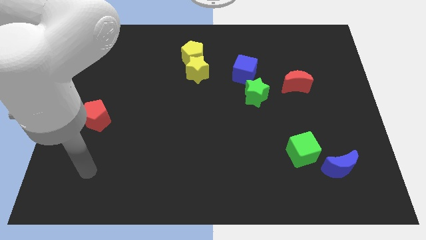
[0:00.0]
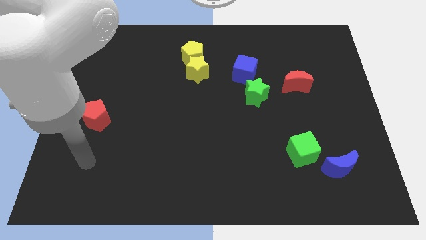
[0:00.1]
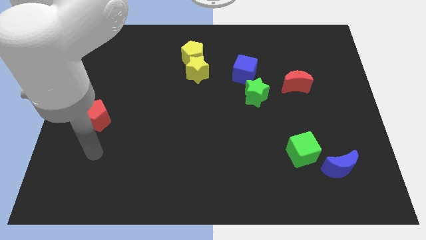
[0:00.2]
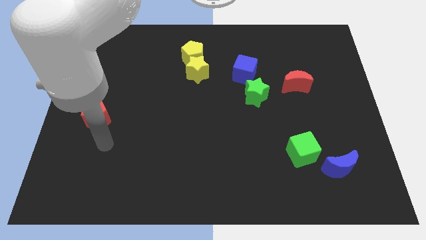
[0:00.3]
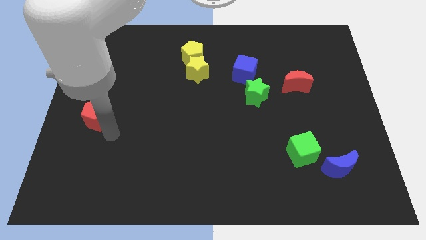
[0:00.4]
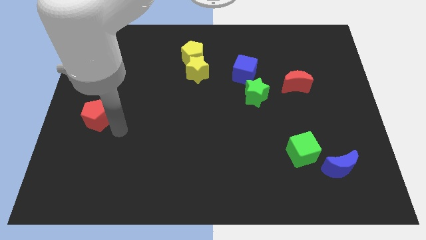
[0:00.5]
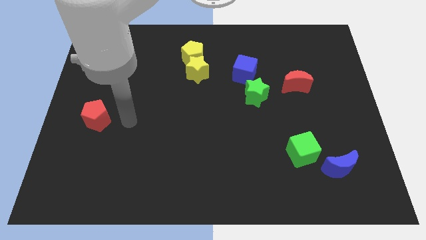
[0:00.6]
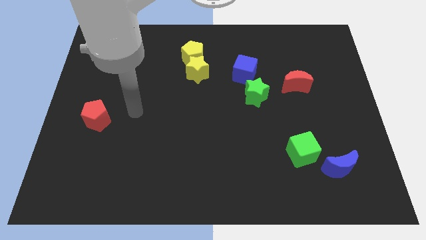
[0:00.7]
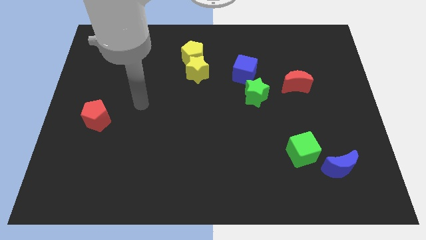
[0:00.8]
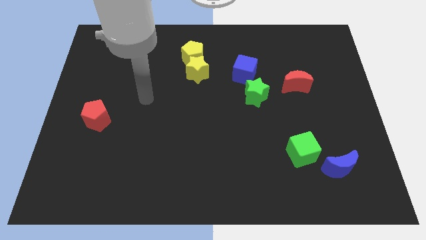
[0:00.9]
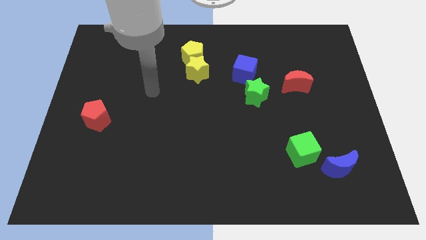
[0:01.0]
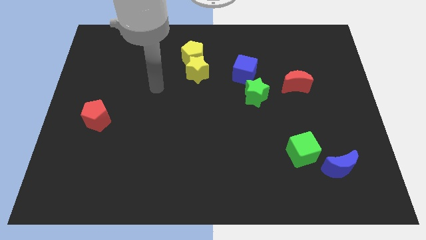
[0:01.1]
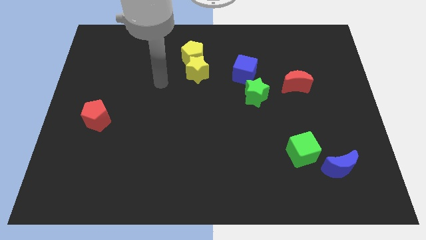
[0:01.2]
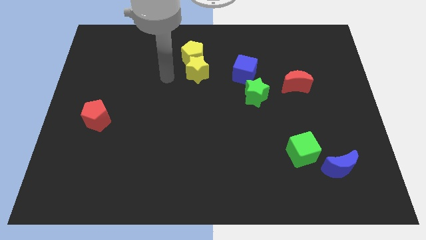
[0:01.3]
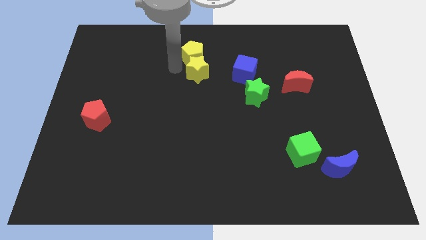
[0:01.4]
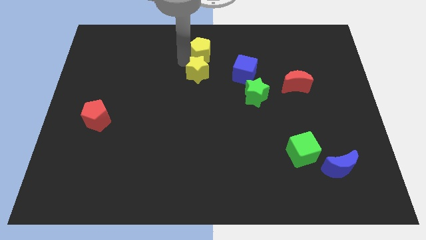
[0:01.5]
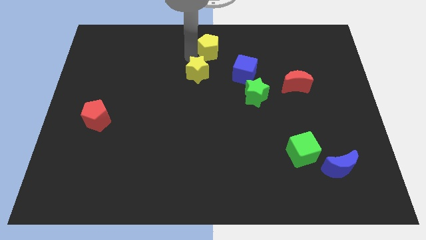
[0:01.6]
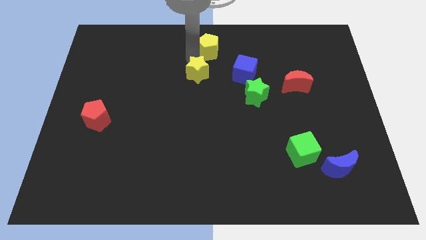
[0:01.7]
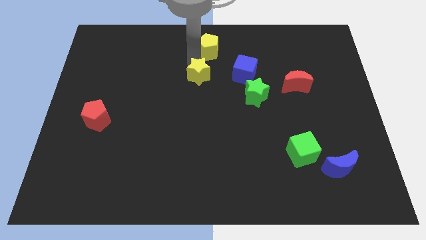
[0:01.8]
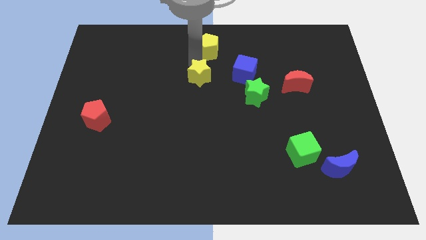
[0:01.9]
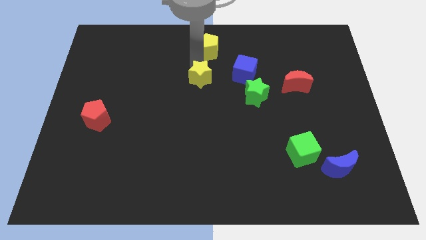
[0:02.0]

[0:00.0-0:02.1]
pull the yellow star apart from the yellow pentagon

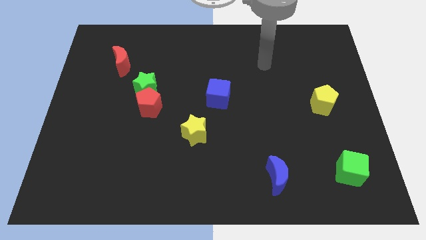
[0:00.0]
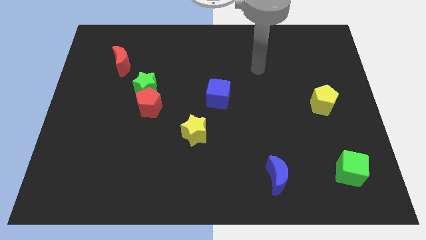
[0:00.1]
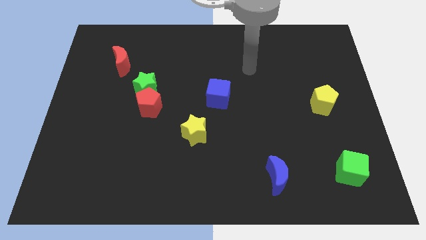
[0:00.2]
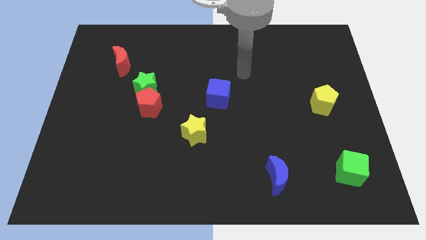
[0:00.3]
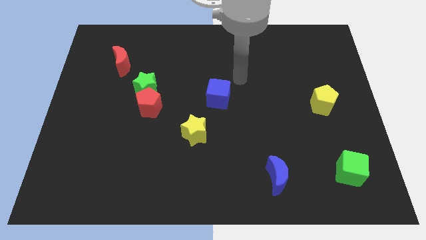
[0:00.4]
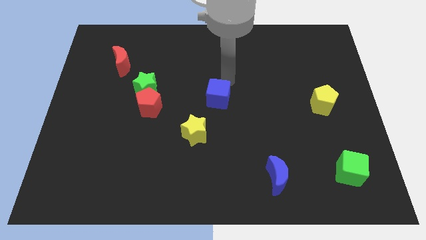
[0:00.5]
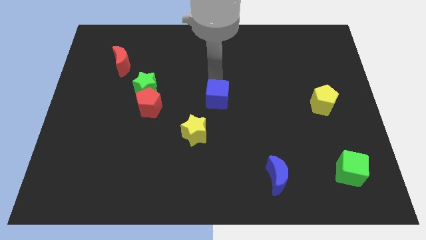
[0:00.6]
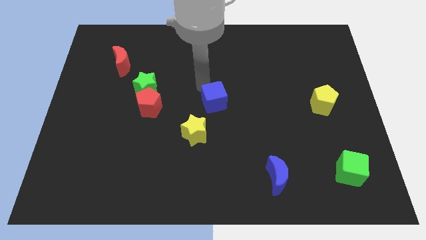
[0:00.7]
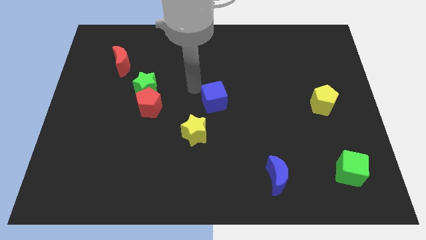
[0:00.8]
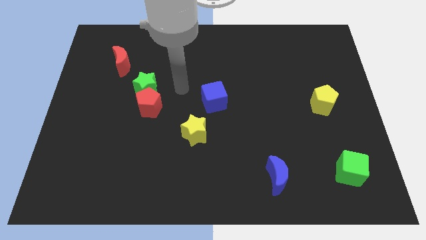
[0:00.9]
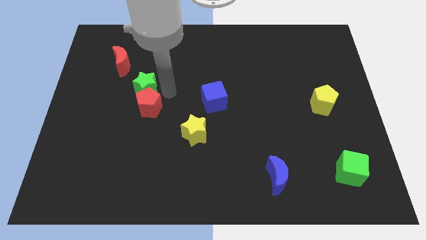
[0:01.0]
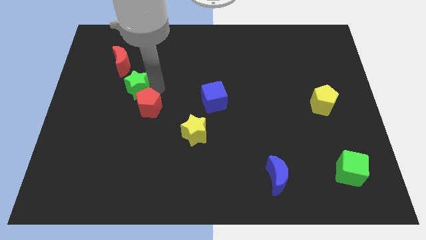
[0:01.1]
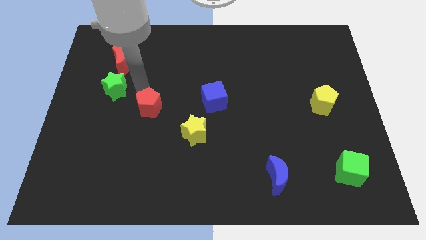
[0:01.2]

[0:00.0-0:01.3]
move the red pentagon away from the green star

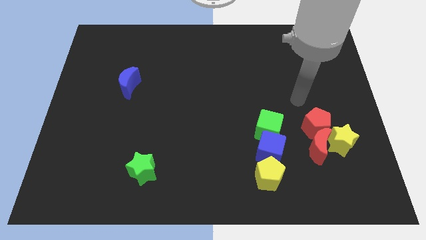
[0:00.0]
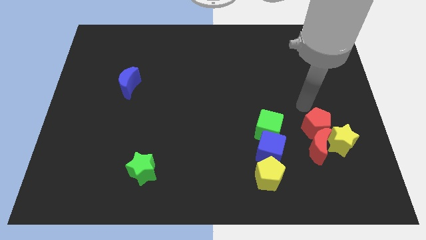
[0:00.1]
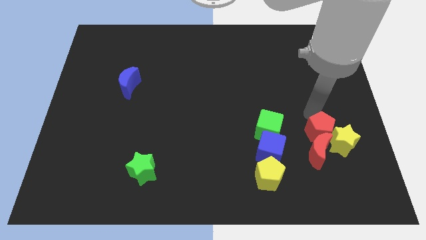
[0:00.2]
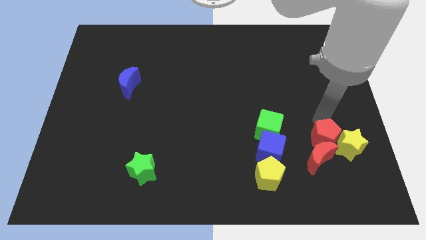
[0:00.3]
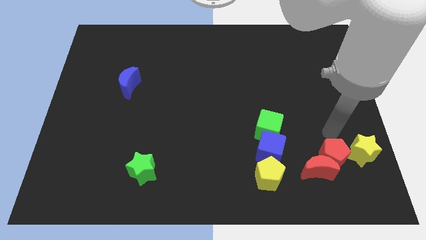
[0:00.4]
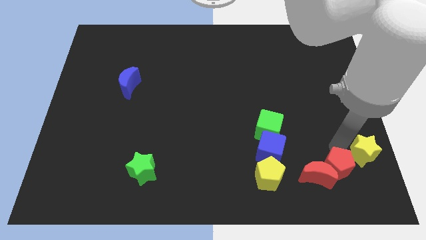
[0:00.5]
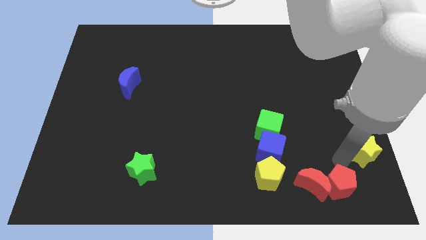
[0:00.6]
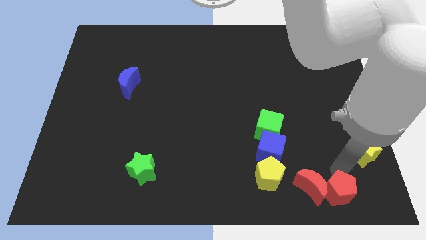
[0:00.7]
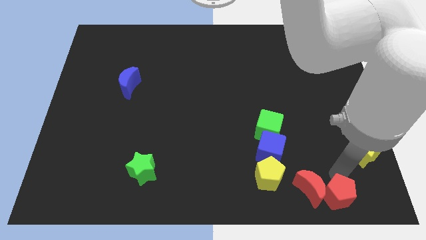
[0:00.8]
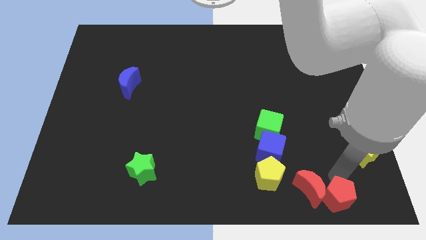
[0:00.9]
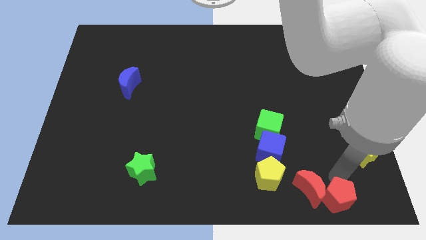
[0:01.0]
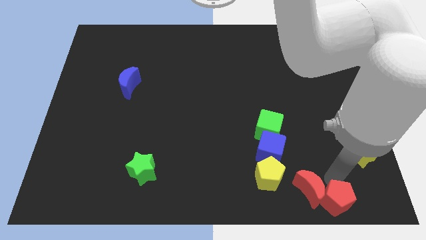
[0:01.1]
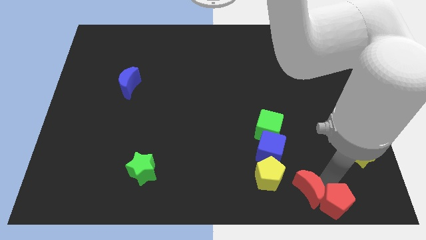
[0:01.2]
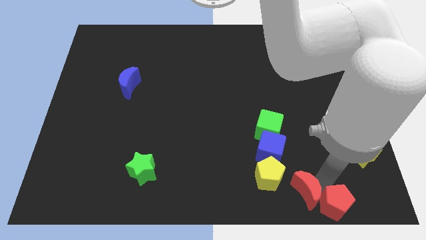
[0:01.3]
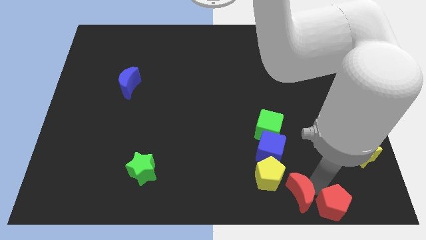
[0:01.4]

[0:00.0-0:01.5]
move the red moon away from the yellow star and red pentagon

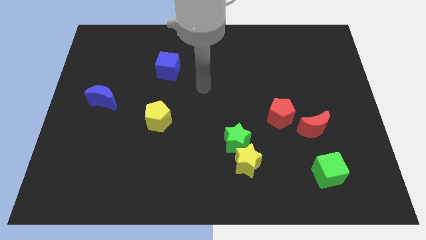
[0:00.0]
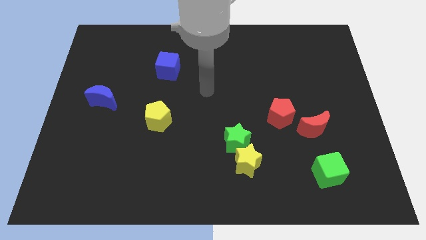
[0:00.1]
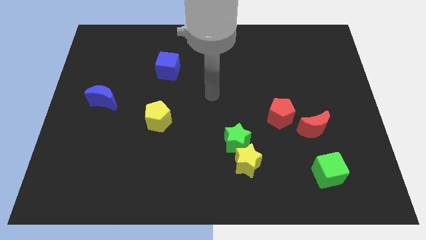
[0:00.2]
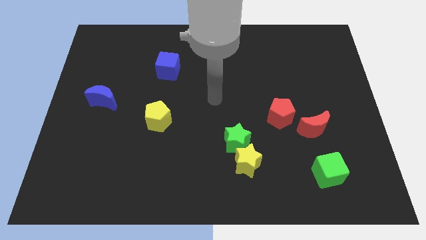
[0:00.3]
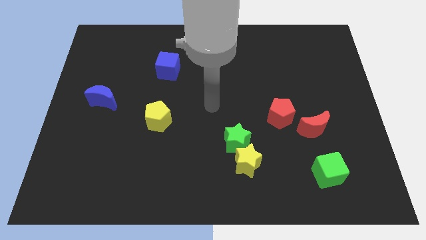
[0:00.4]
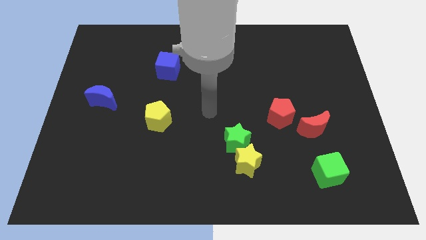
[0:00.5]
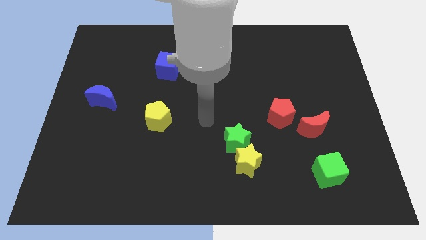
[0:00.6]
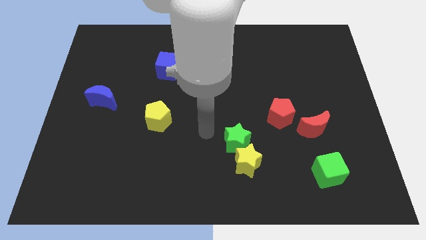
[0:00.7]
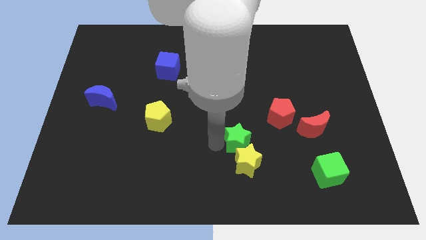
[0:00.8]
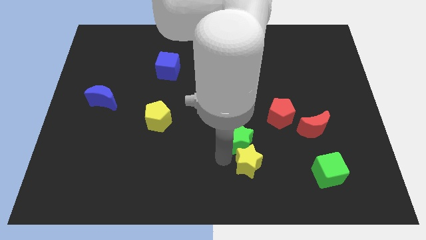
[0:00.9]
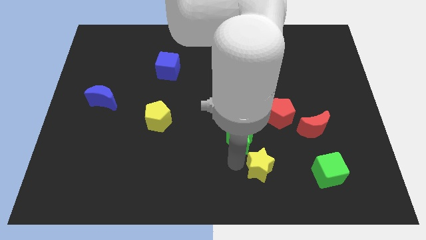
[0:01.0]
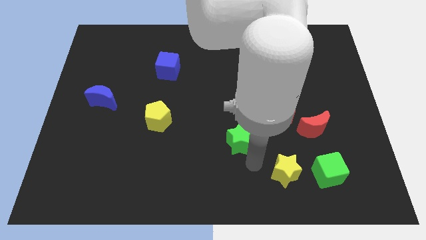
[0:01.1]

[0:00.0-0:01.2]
separate the green star from the yellow star

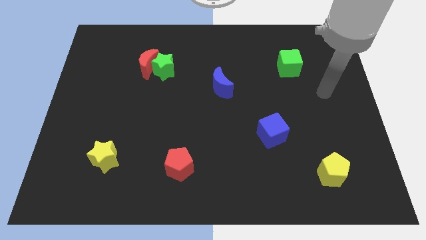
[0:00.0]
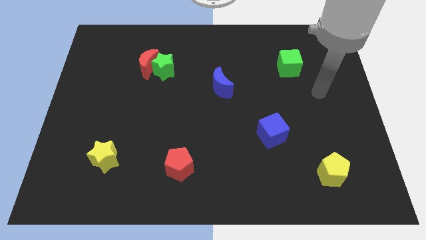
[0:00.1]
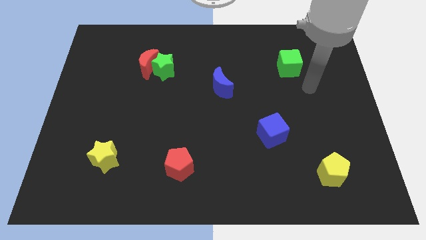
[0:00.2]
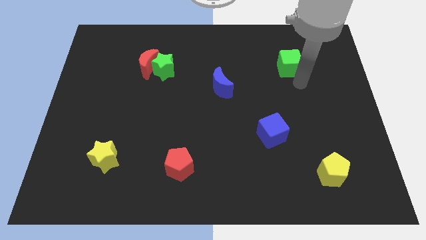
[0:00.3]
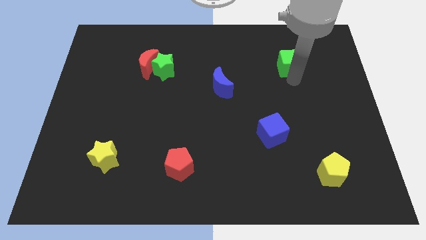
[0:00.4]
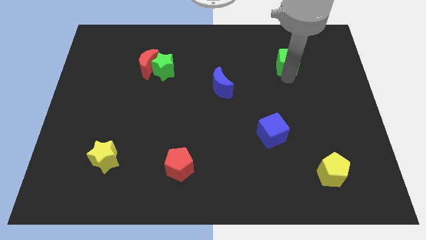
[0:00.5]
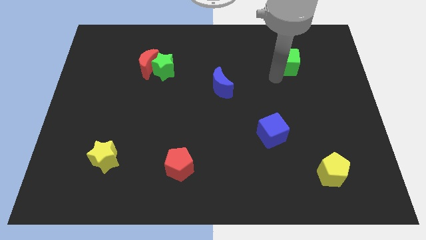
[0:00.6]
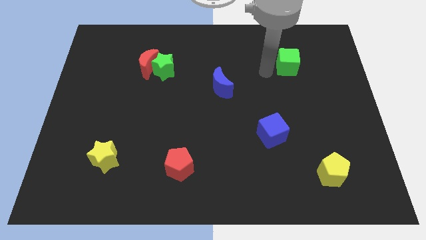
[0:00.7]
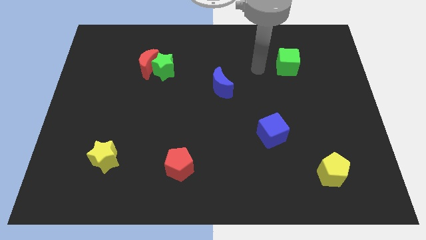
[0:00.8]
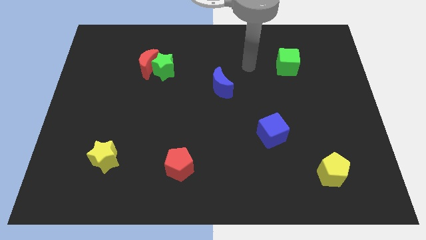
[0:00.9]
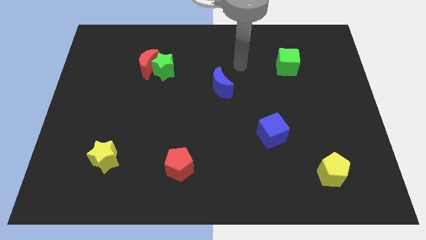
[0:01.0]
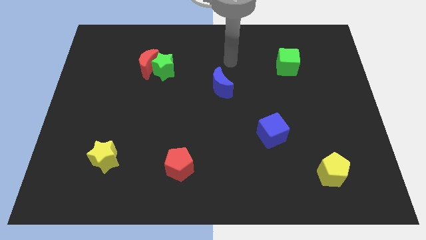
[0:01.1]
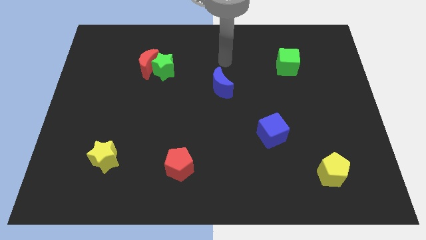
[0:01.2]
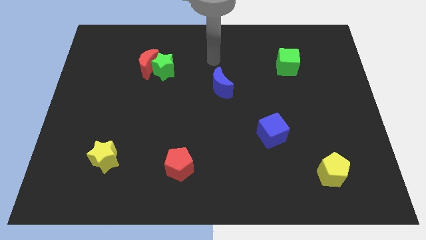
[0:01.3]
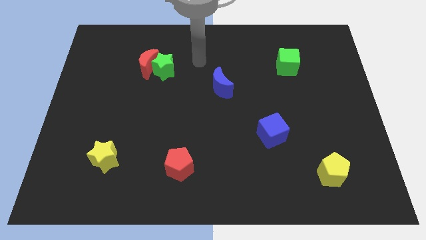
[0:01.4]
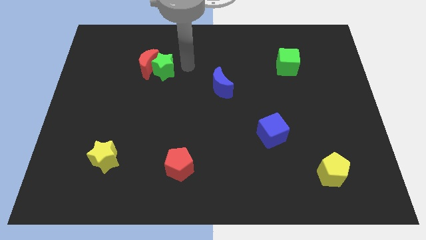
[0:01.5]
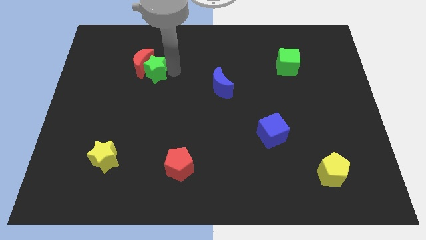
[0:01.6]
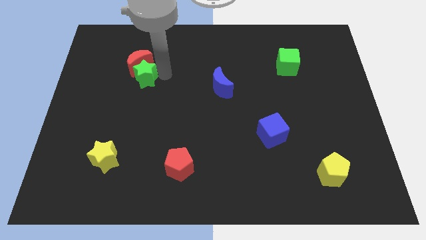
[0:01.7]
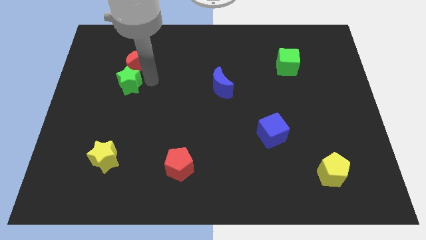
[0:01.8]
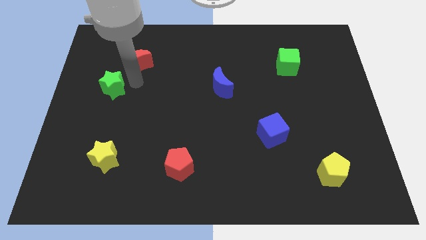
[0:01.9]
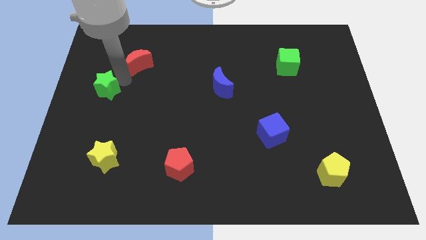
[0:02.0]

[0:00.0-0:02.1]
move the red moon away from the green star

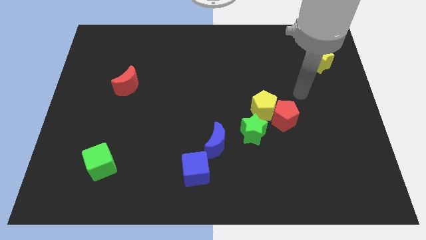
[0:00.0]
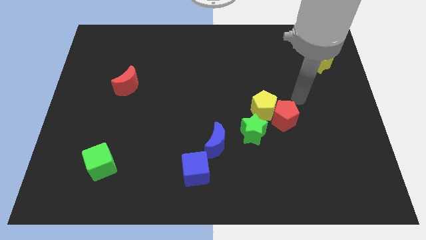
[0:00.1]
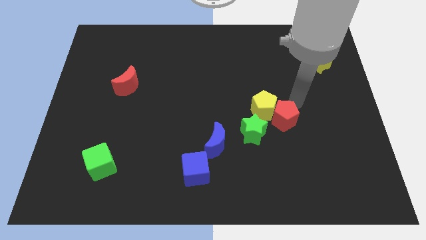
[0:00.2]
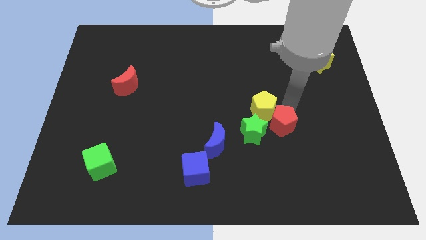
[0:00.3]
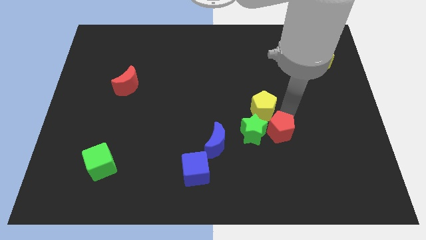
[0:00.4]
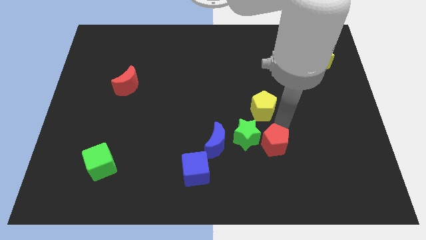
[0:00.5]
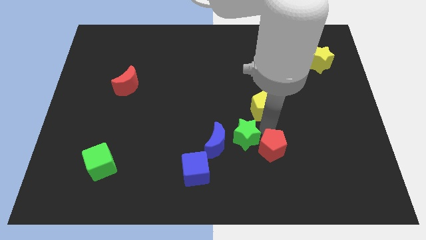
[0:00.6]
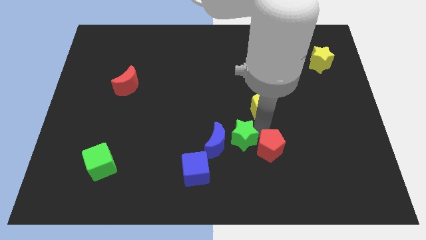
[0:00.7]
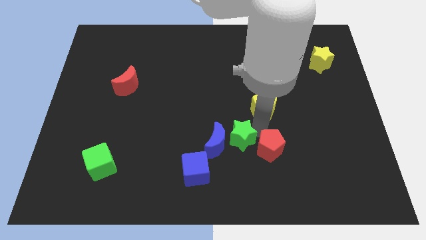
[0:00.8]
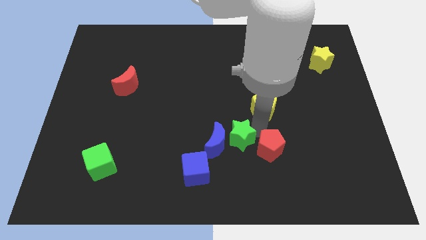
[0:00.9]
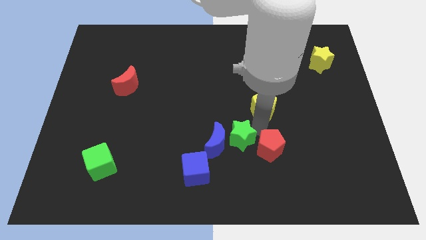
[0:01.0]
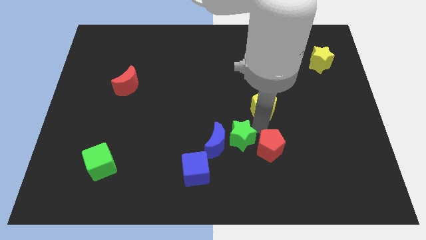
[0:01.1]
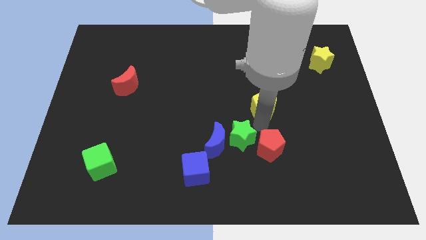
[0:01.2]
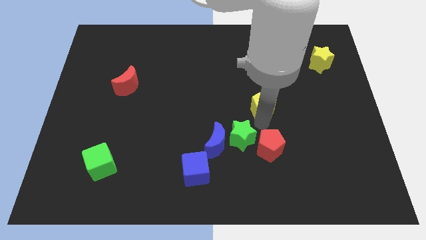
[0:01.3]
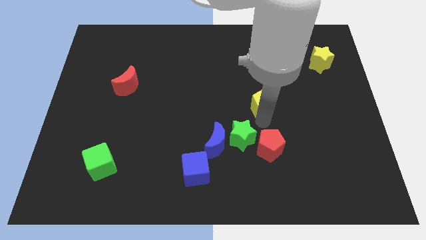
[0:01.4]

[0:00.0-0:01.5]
pull the yellow pentagon apart from the red pentagon and green star
